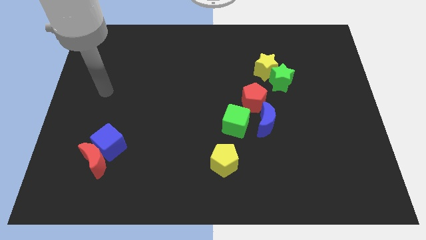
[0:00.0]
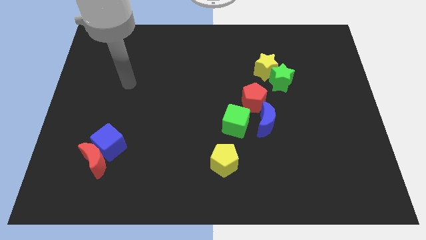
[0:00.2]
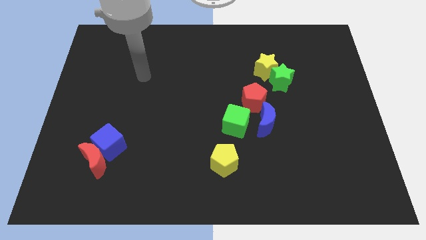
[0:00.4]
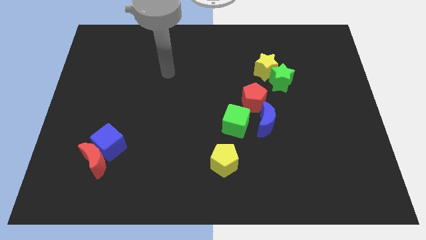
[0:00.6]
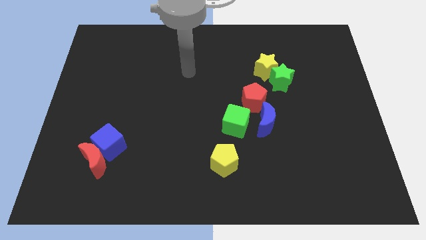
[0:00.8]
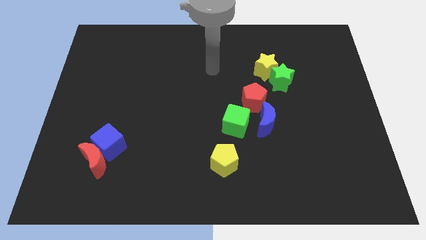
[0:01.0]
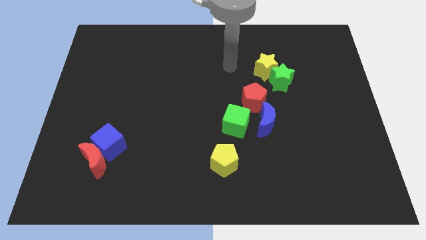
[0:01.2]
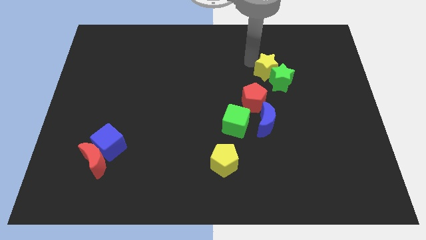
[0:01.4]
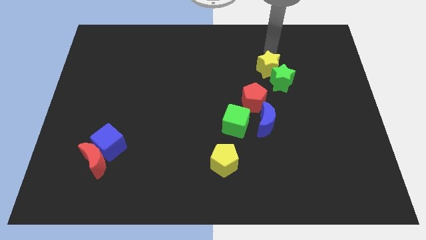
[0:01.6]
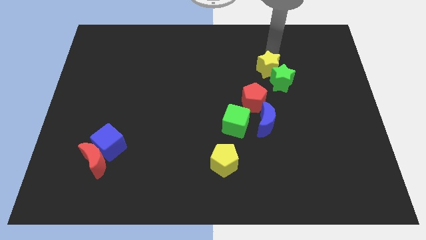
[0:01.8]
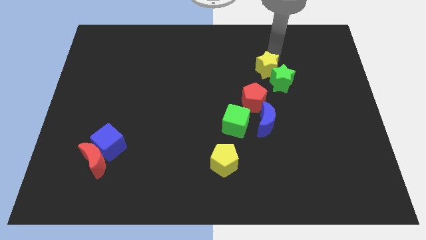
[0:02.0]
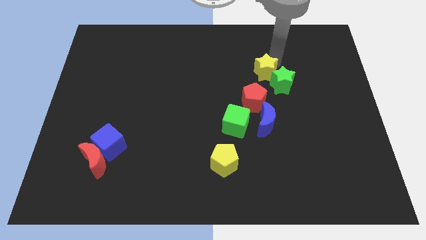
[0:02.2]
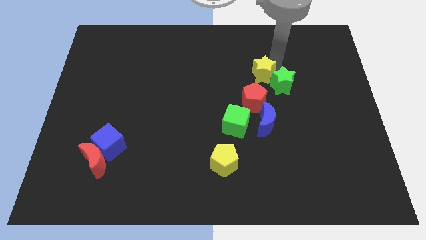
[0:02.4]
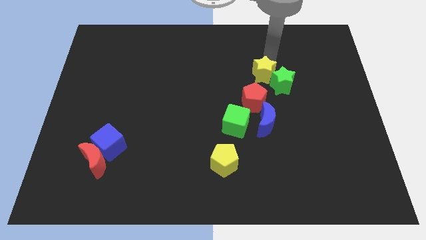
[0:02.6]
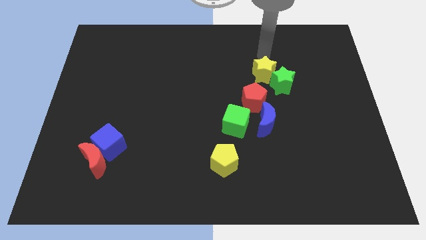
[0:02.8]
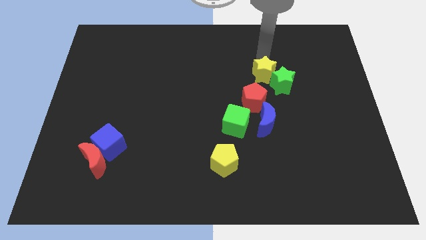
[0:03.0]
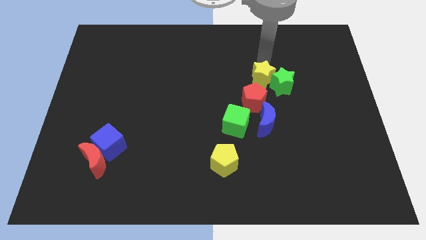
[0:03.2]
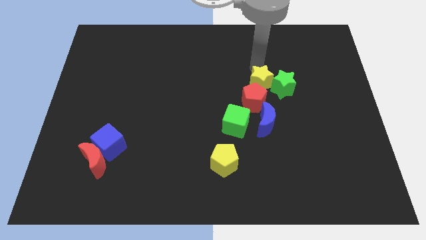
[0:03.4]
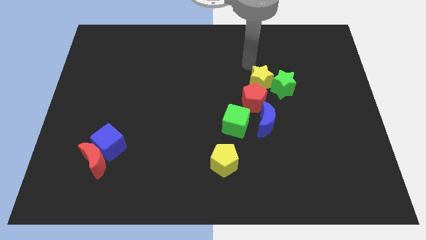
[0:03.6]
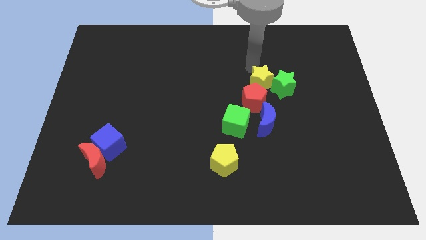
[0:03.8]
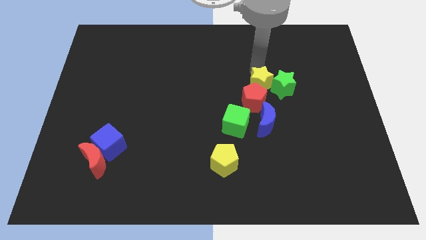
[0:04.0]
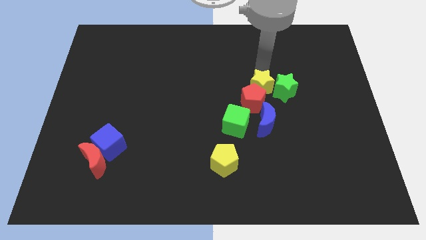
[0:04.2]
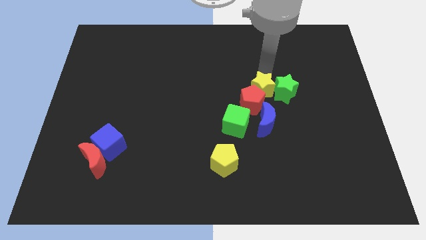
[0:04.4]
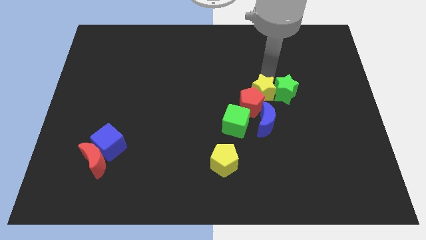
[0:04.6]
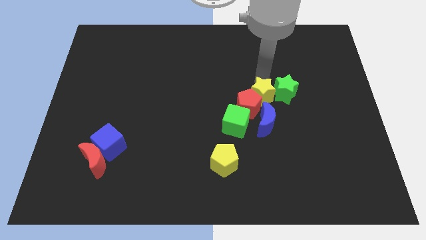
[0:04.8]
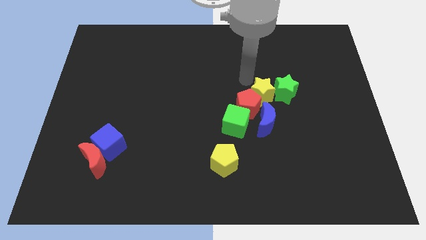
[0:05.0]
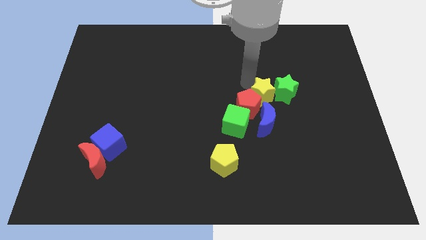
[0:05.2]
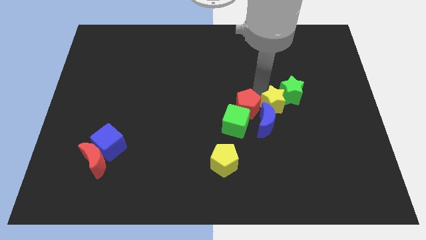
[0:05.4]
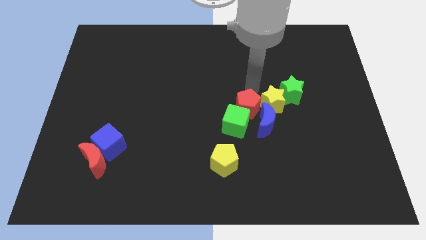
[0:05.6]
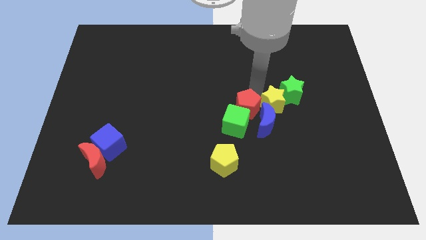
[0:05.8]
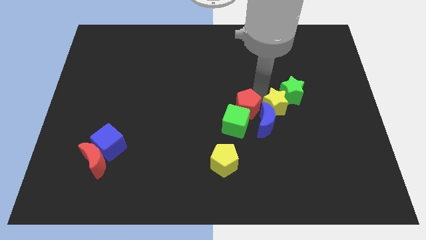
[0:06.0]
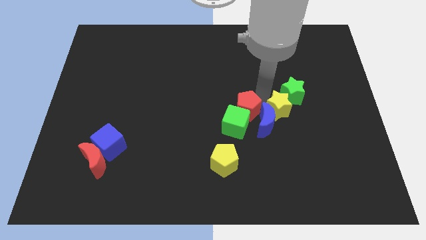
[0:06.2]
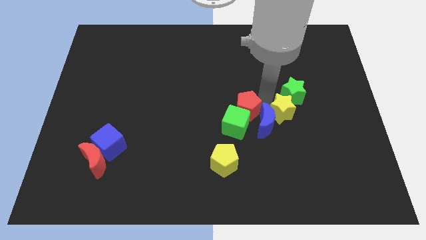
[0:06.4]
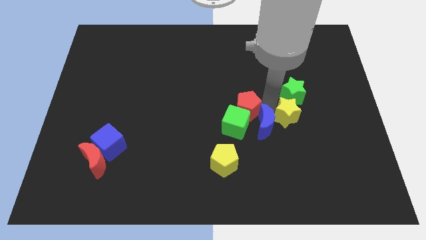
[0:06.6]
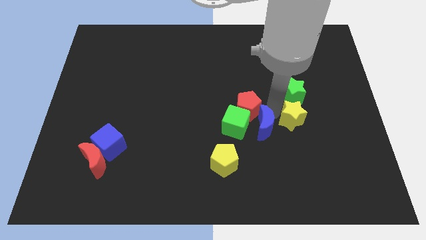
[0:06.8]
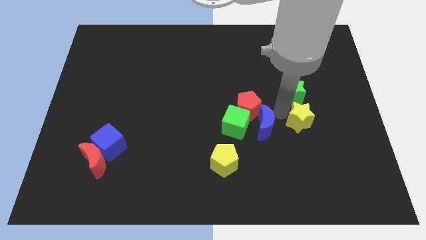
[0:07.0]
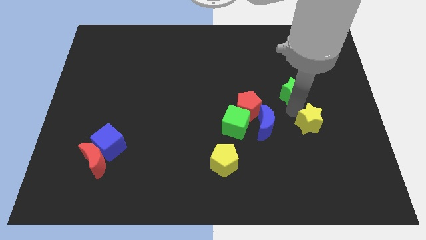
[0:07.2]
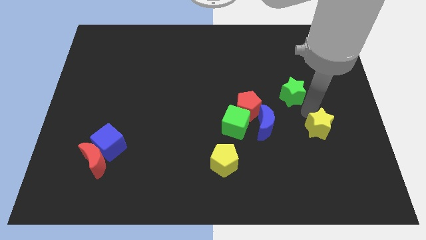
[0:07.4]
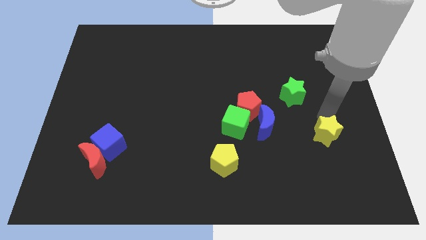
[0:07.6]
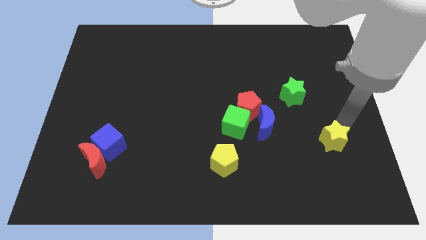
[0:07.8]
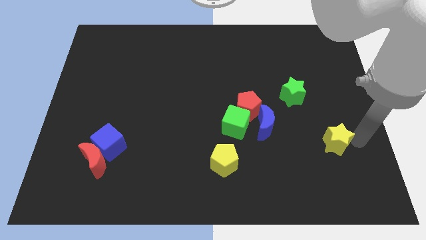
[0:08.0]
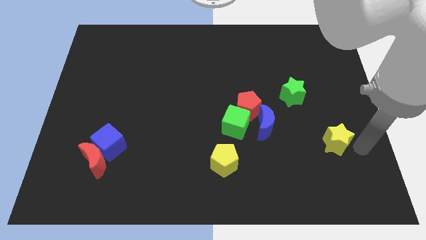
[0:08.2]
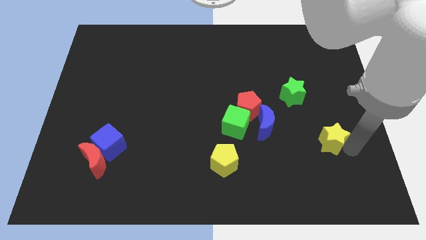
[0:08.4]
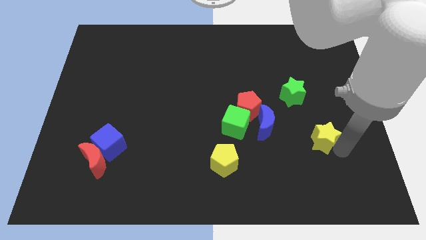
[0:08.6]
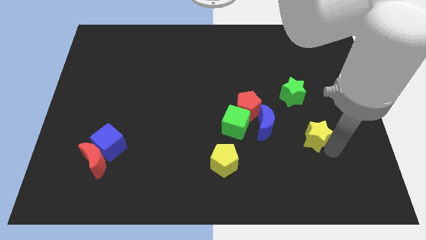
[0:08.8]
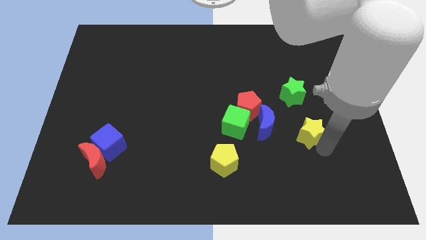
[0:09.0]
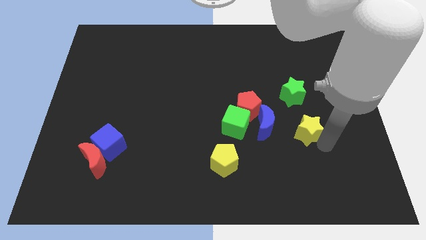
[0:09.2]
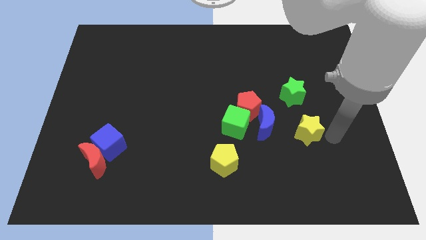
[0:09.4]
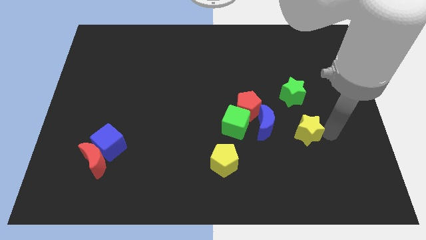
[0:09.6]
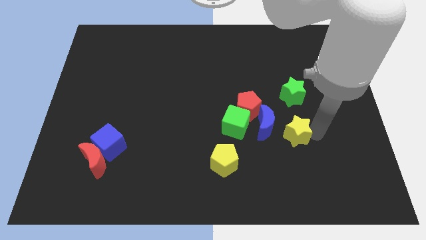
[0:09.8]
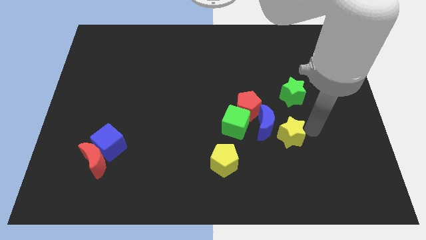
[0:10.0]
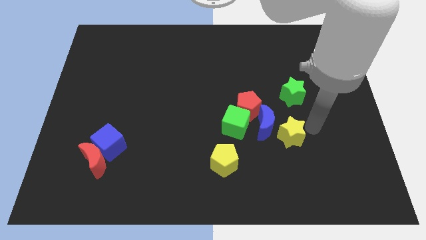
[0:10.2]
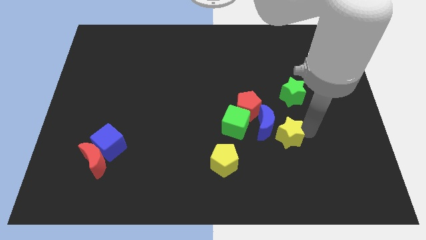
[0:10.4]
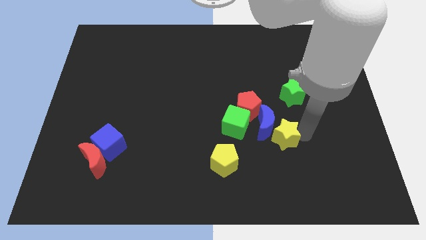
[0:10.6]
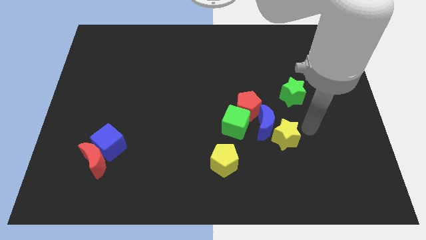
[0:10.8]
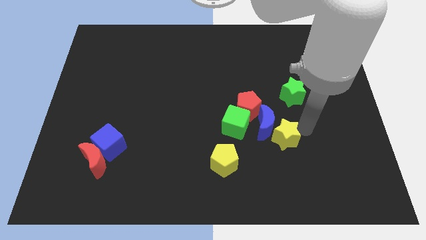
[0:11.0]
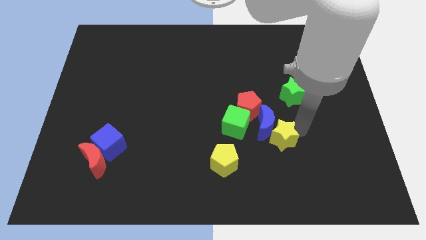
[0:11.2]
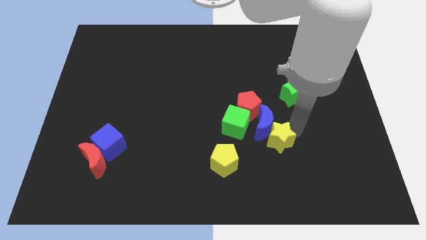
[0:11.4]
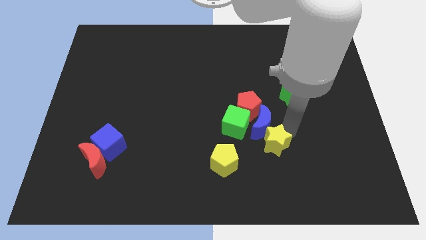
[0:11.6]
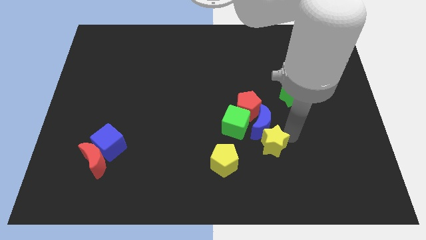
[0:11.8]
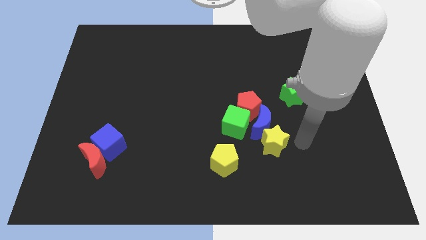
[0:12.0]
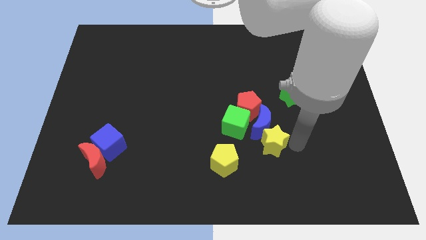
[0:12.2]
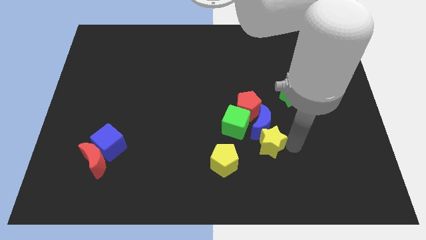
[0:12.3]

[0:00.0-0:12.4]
put the yellow star below the red pentagon

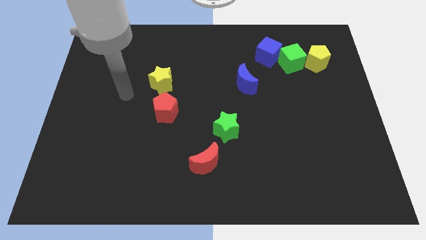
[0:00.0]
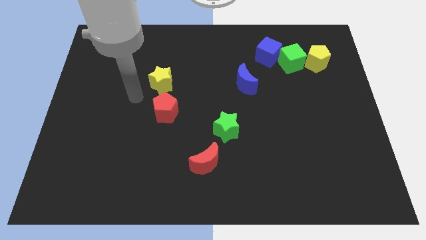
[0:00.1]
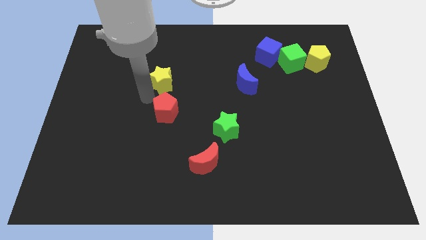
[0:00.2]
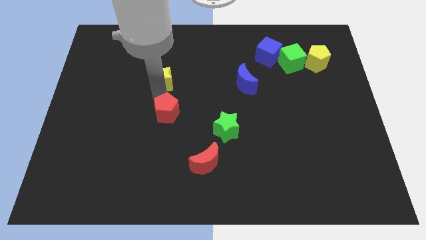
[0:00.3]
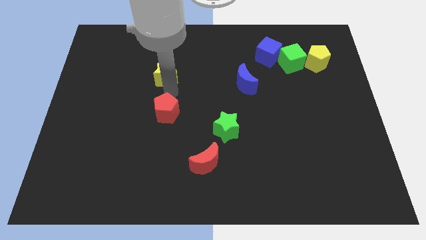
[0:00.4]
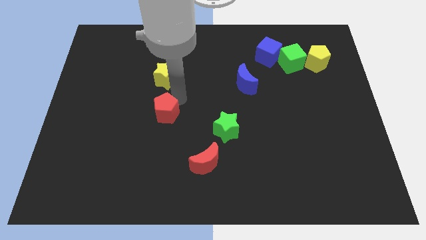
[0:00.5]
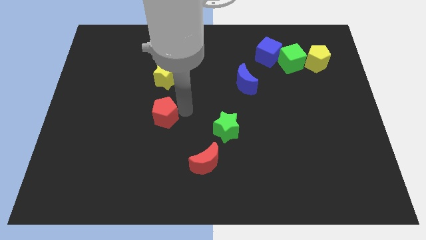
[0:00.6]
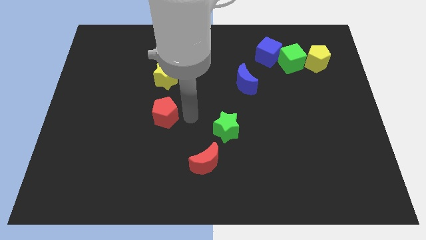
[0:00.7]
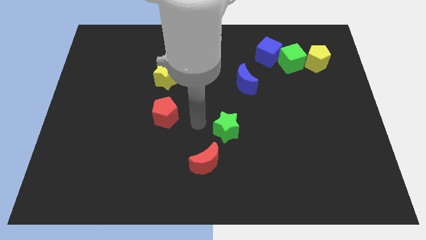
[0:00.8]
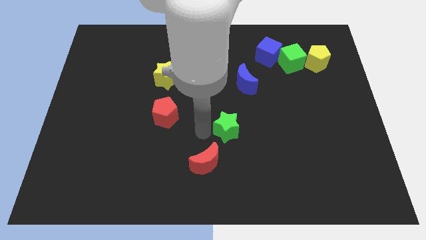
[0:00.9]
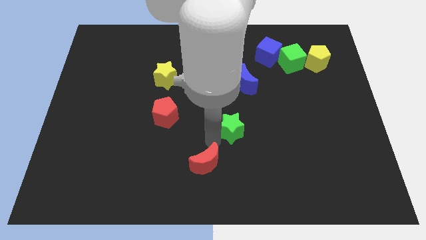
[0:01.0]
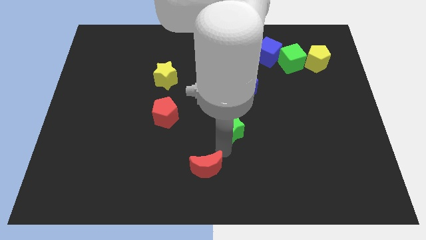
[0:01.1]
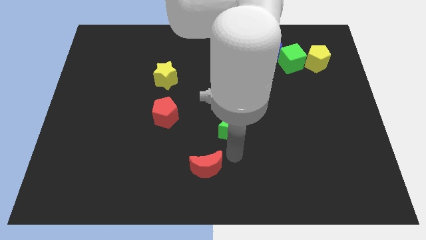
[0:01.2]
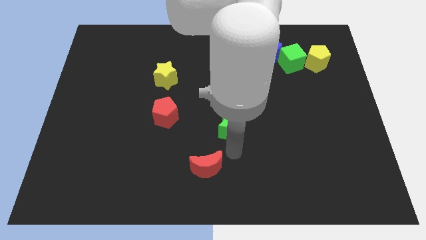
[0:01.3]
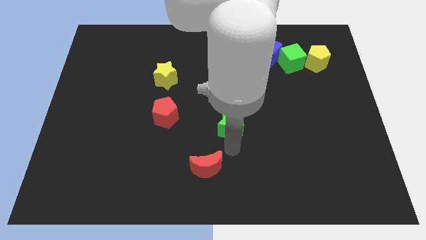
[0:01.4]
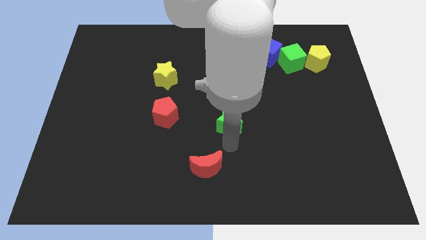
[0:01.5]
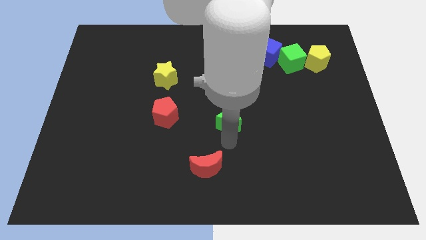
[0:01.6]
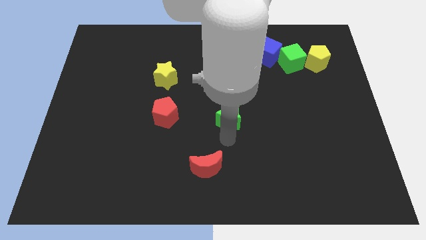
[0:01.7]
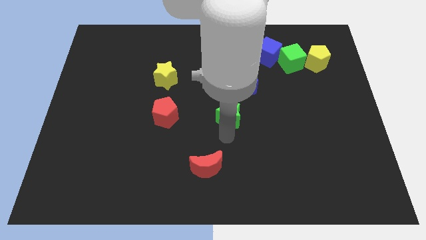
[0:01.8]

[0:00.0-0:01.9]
move the green star to the bottom left of the blue moon
